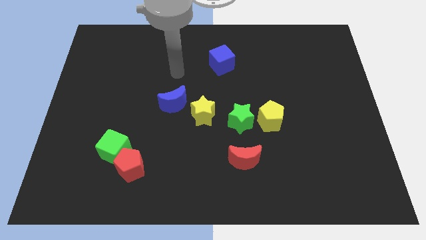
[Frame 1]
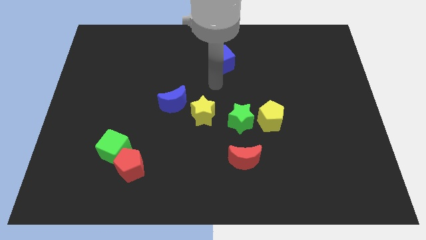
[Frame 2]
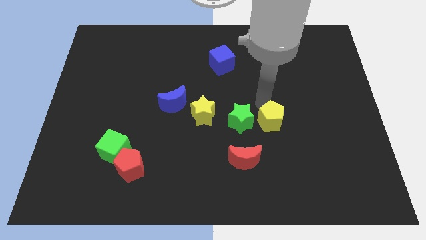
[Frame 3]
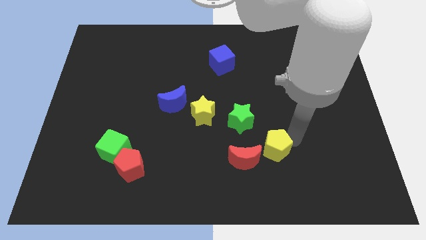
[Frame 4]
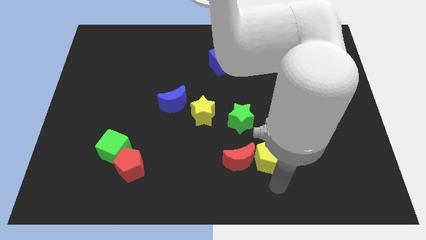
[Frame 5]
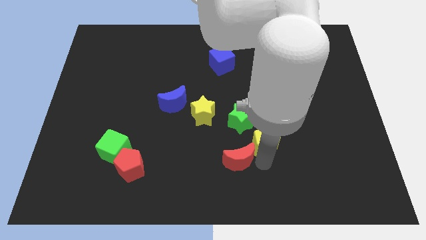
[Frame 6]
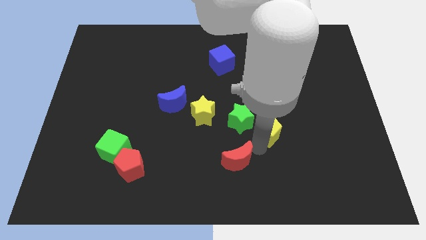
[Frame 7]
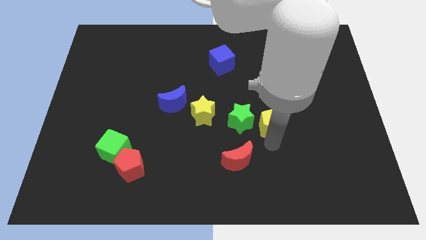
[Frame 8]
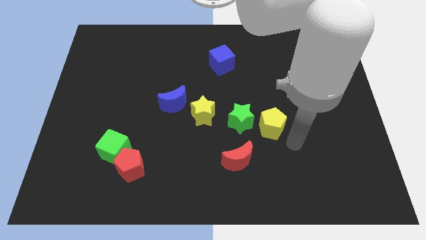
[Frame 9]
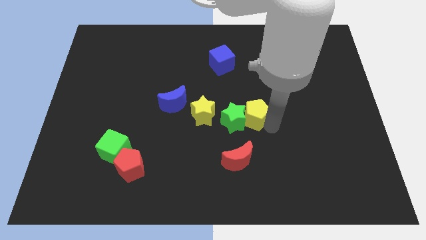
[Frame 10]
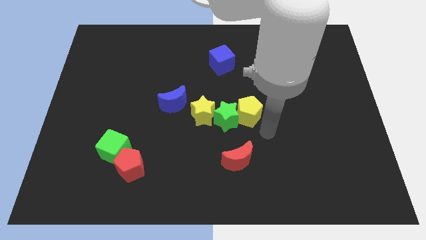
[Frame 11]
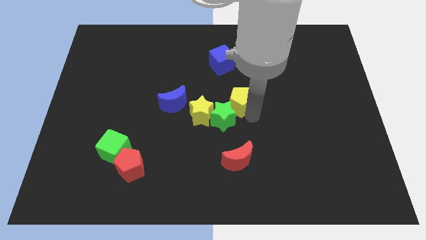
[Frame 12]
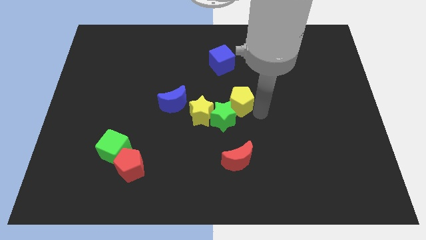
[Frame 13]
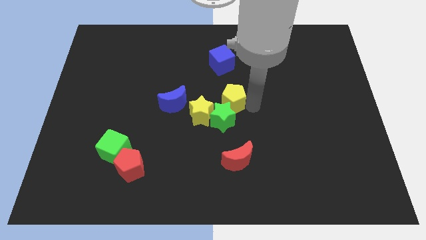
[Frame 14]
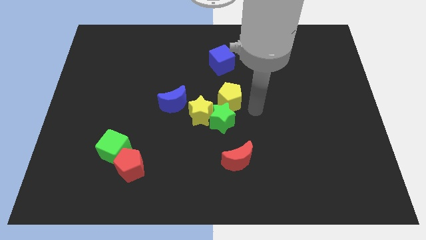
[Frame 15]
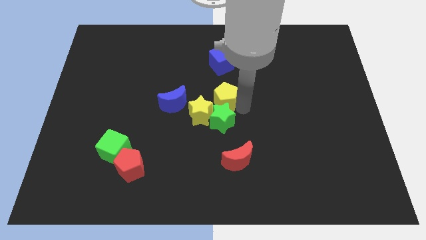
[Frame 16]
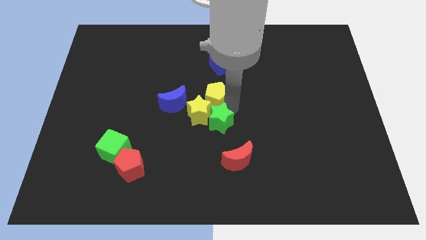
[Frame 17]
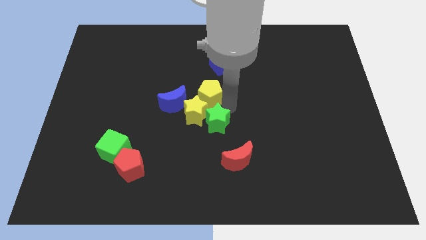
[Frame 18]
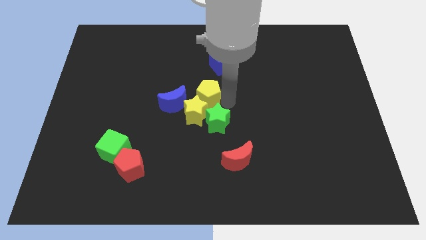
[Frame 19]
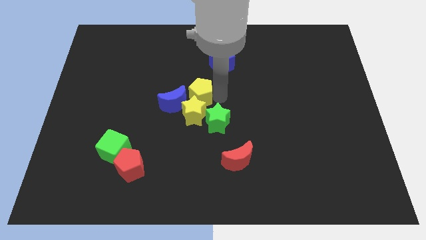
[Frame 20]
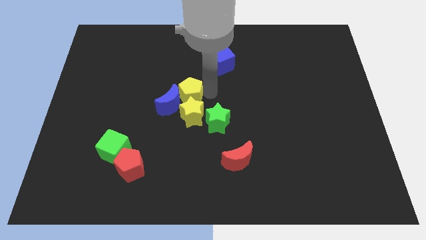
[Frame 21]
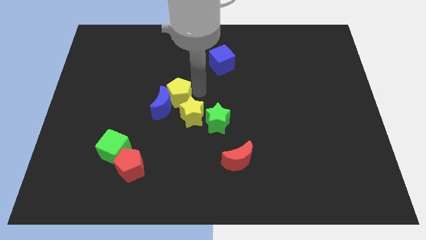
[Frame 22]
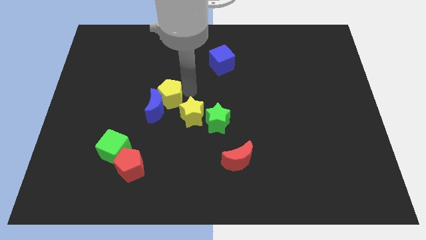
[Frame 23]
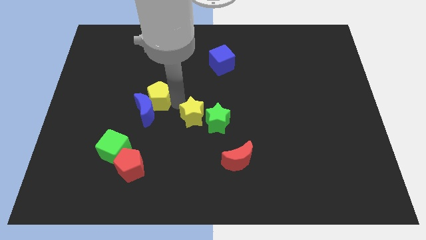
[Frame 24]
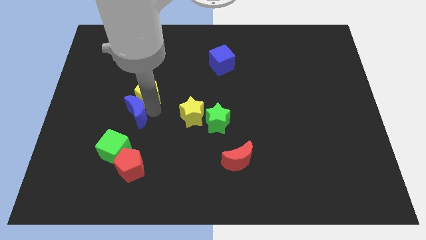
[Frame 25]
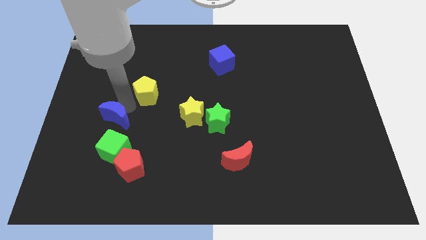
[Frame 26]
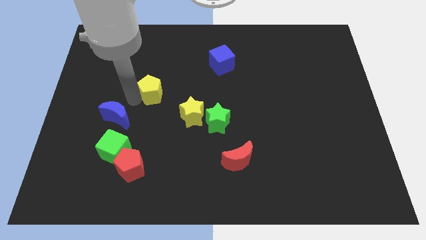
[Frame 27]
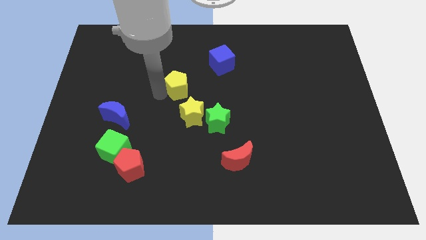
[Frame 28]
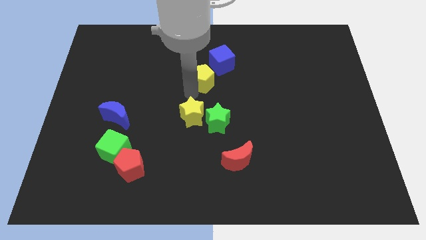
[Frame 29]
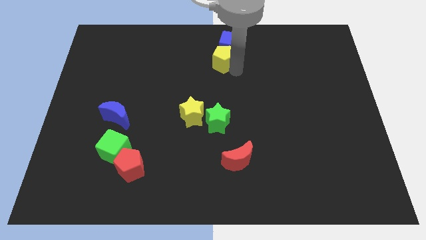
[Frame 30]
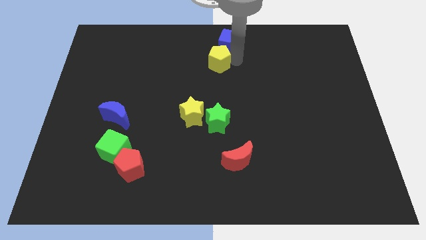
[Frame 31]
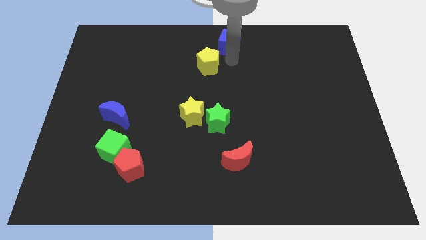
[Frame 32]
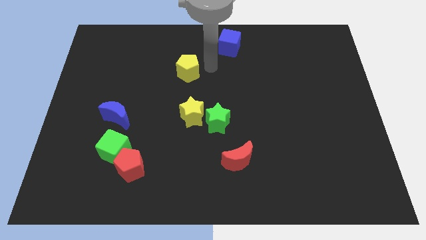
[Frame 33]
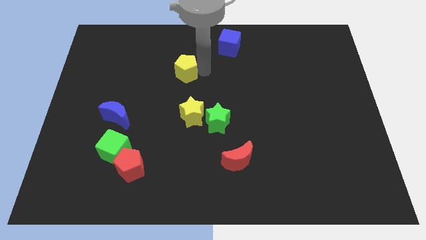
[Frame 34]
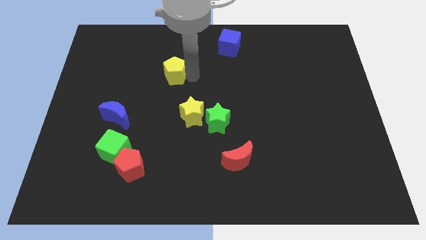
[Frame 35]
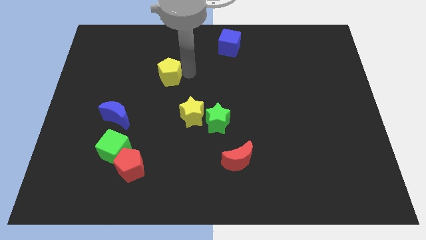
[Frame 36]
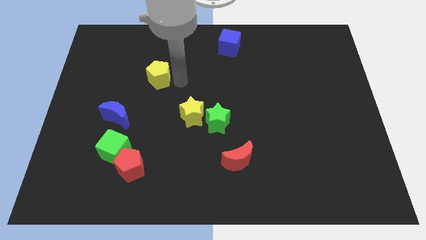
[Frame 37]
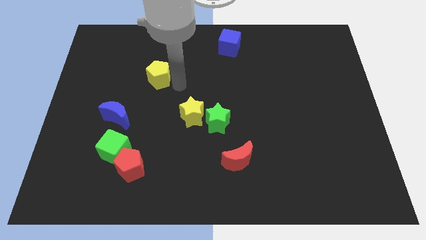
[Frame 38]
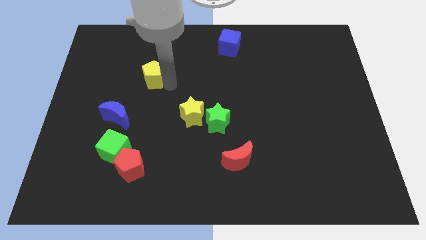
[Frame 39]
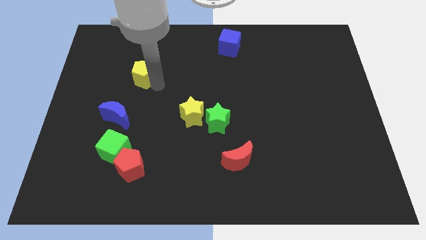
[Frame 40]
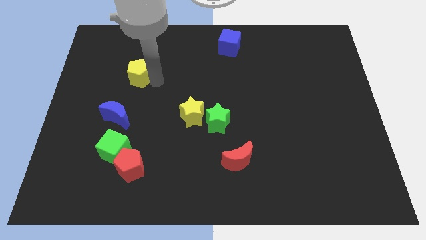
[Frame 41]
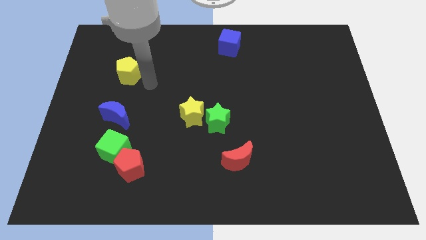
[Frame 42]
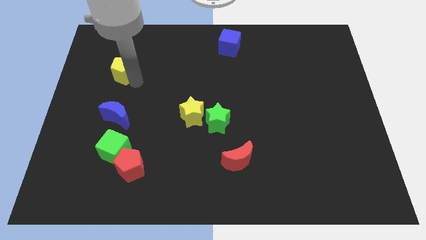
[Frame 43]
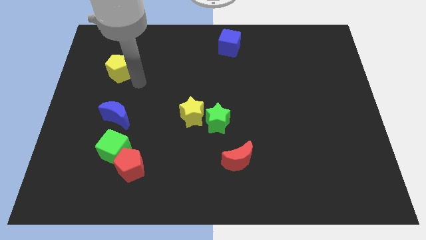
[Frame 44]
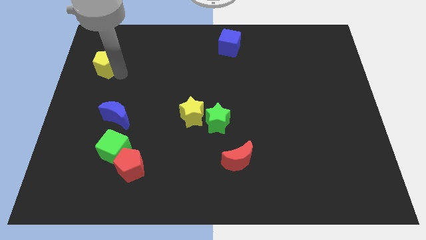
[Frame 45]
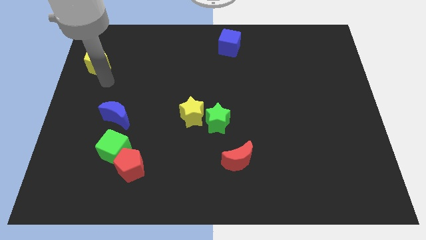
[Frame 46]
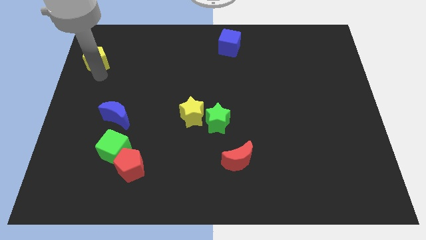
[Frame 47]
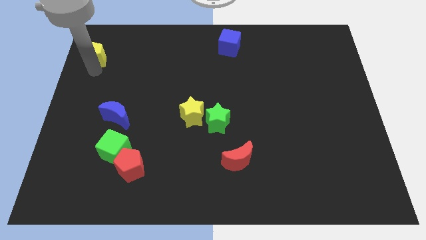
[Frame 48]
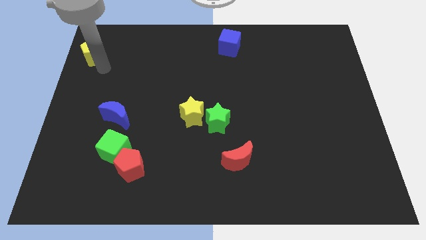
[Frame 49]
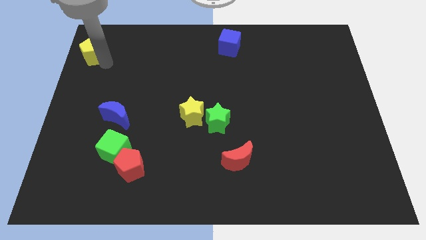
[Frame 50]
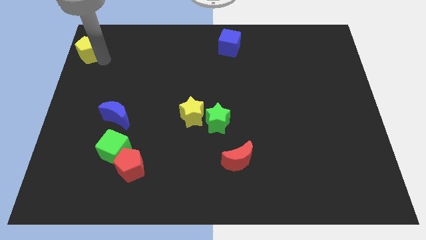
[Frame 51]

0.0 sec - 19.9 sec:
move the yellow pentagon to the upper left corner

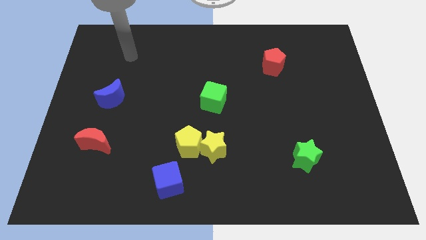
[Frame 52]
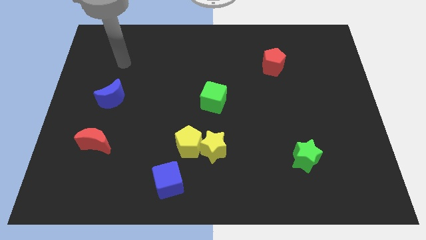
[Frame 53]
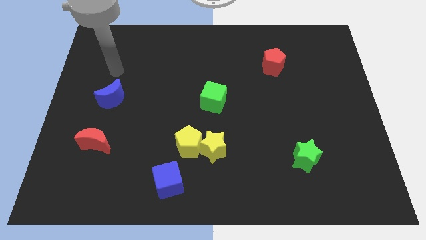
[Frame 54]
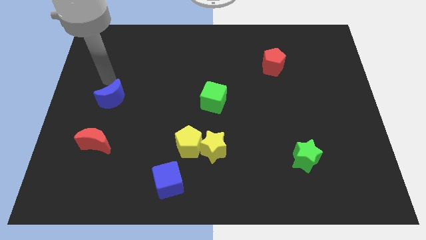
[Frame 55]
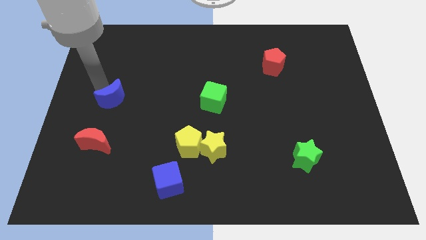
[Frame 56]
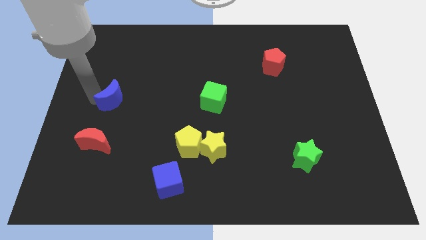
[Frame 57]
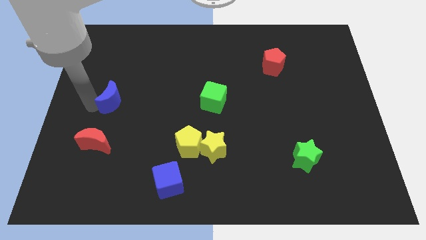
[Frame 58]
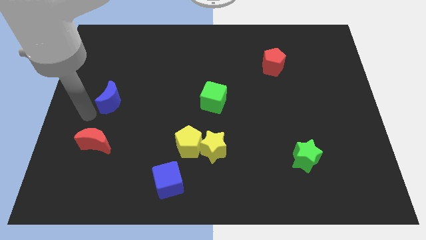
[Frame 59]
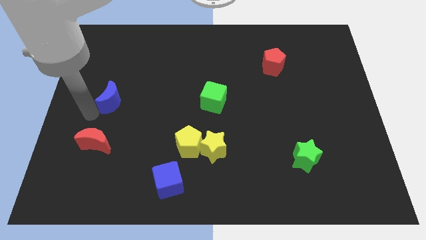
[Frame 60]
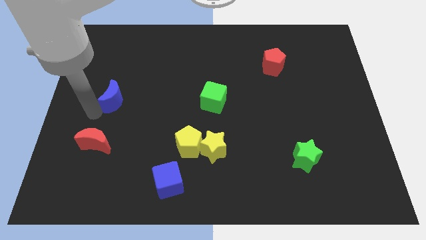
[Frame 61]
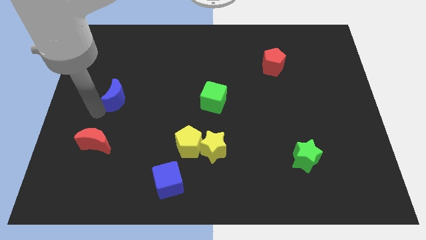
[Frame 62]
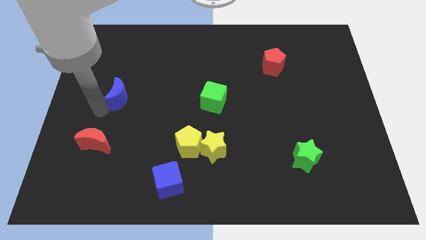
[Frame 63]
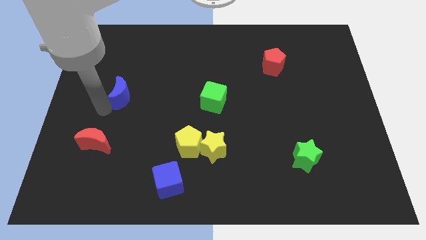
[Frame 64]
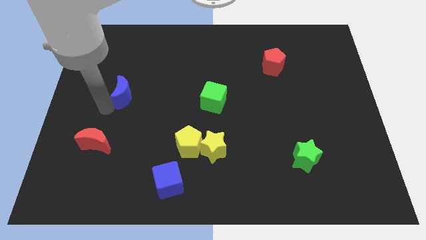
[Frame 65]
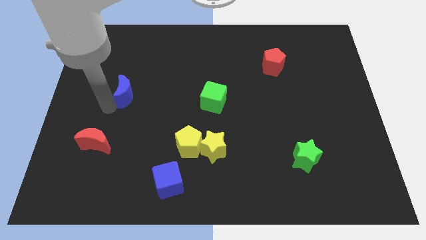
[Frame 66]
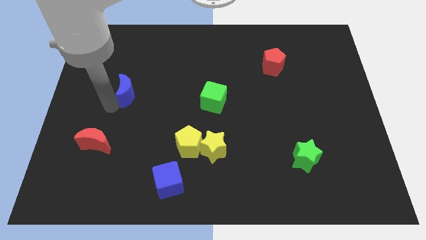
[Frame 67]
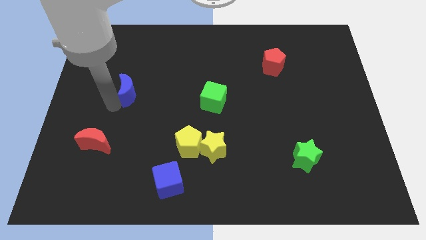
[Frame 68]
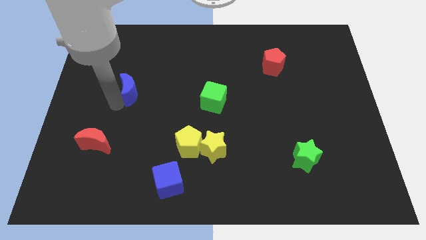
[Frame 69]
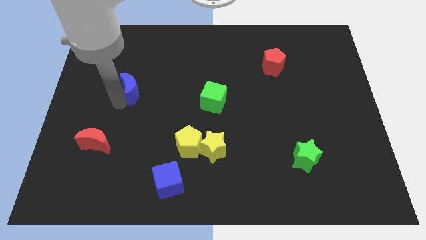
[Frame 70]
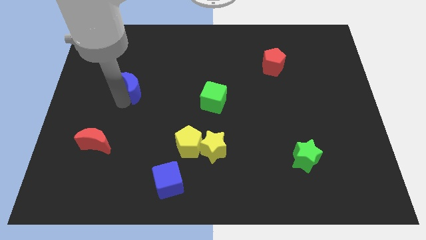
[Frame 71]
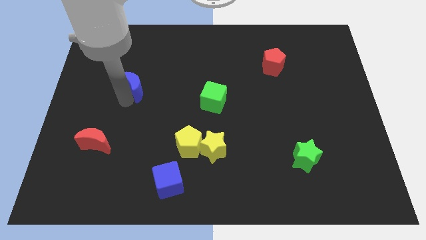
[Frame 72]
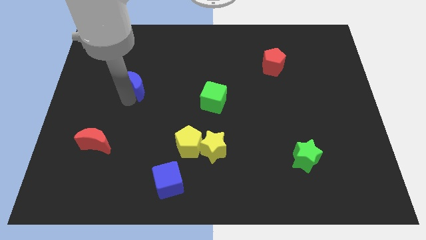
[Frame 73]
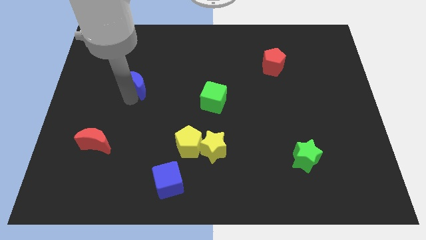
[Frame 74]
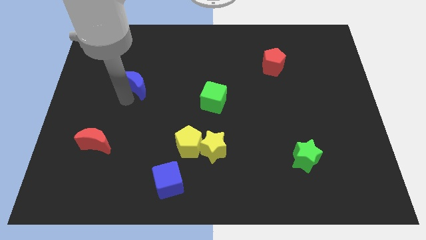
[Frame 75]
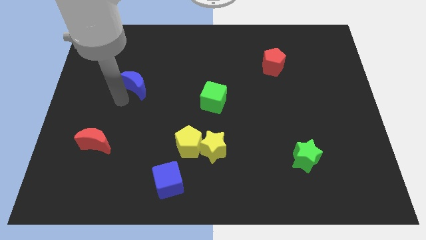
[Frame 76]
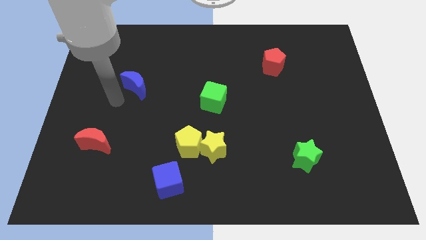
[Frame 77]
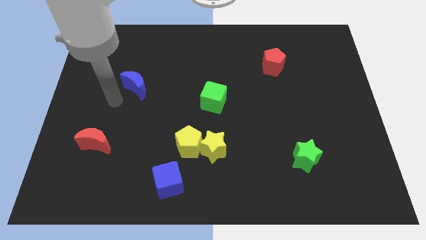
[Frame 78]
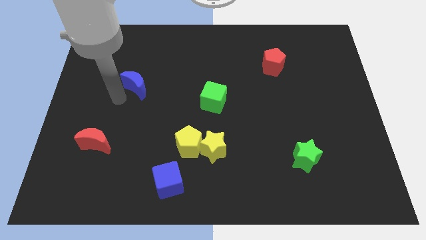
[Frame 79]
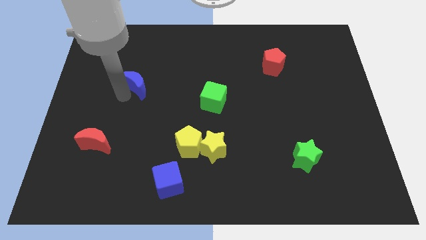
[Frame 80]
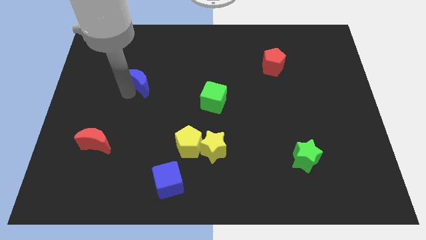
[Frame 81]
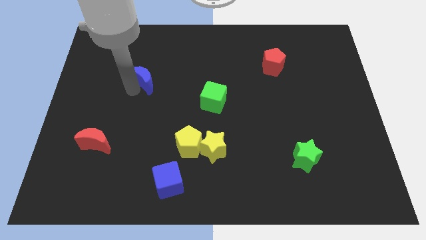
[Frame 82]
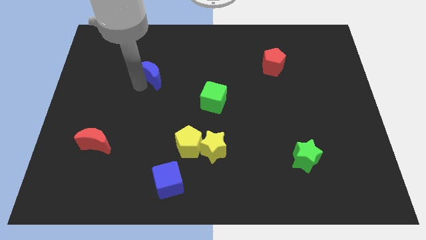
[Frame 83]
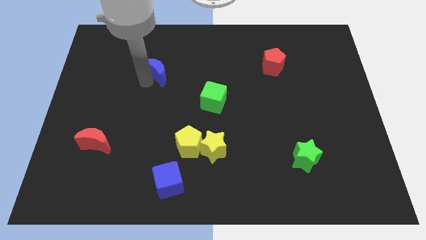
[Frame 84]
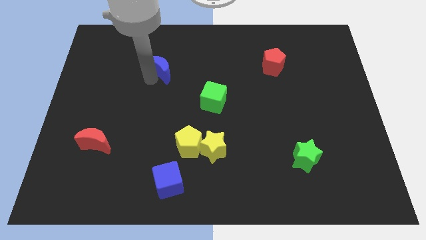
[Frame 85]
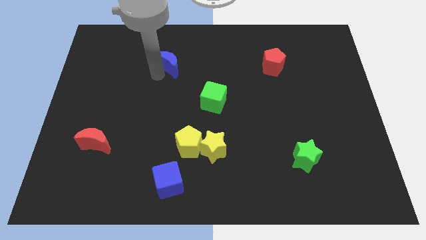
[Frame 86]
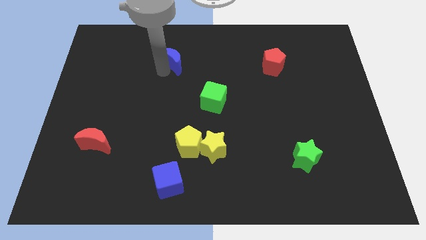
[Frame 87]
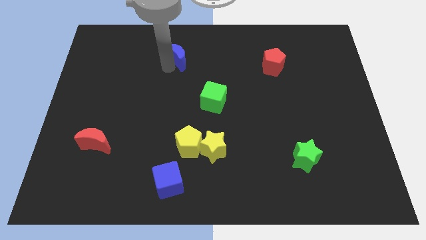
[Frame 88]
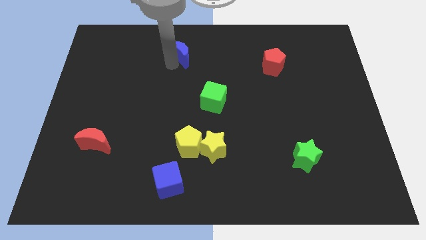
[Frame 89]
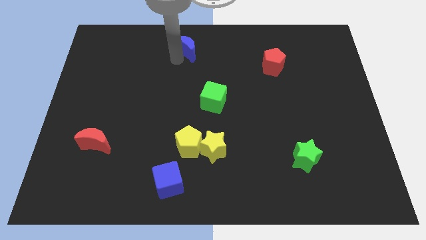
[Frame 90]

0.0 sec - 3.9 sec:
slide the blue moon to the towards your base
